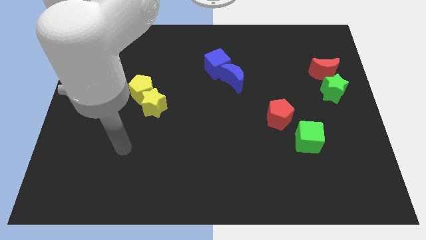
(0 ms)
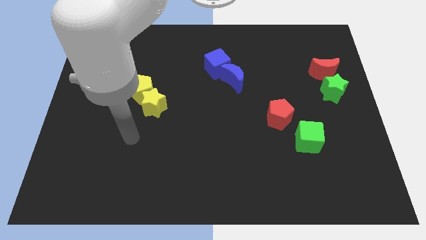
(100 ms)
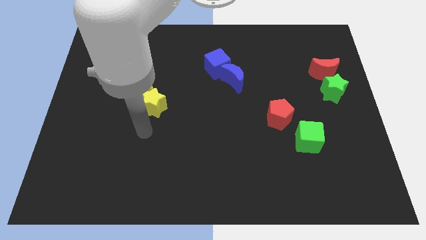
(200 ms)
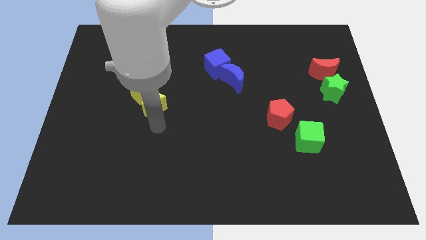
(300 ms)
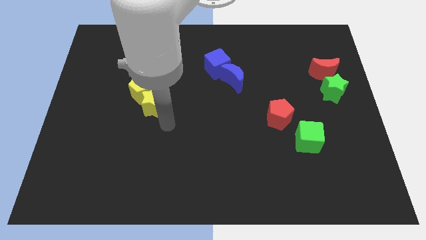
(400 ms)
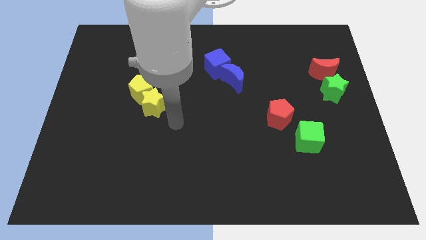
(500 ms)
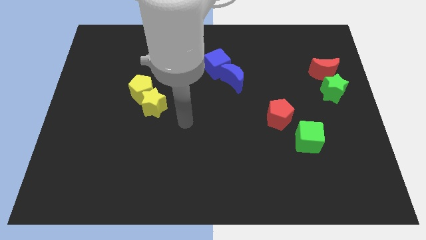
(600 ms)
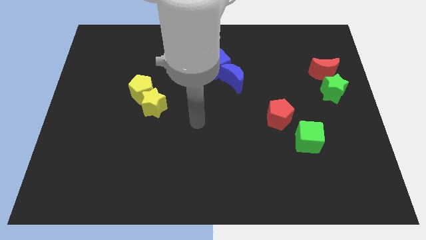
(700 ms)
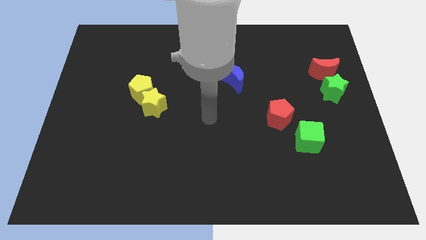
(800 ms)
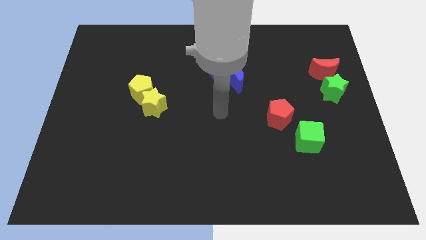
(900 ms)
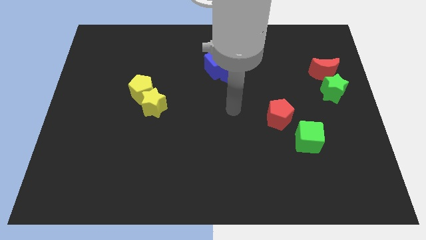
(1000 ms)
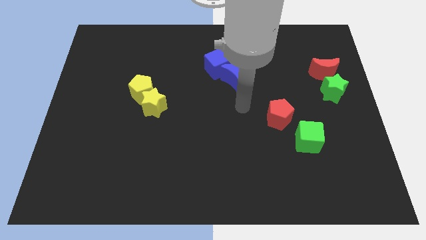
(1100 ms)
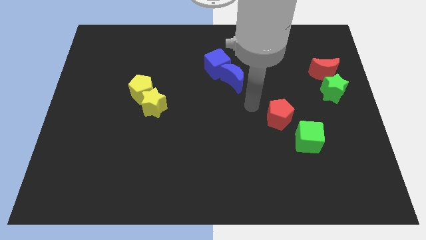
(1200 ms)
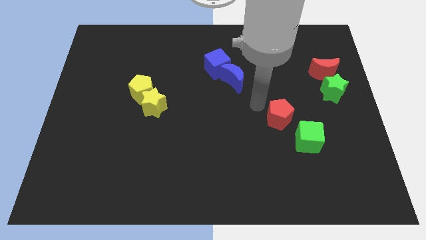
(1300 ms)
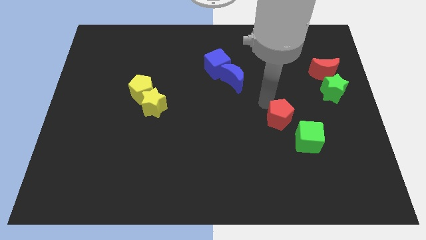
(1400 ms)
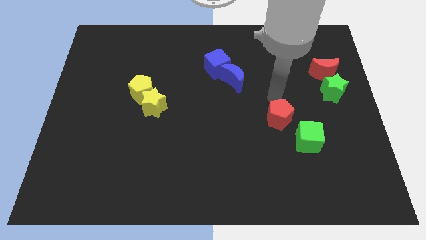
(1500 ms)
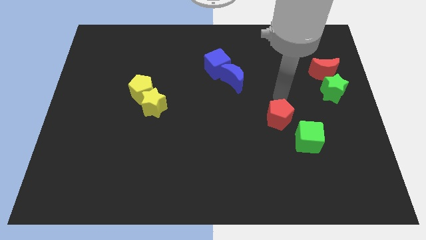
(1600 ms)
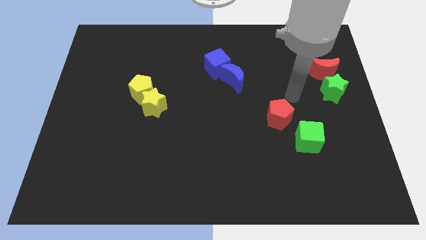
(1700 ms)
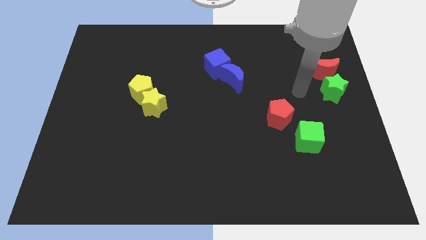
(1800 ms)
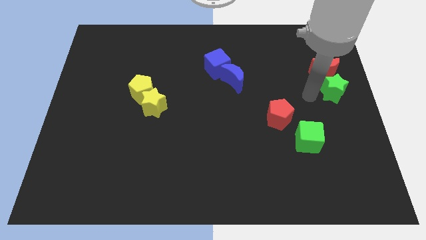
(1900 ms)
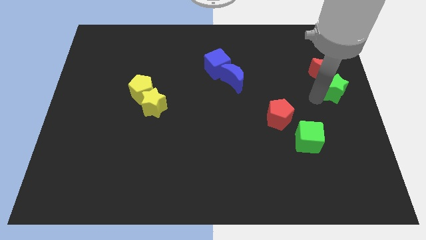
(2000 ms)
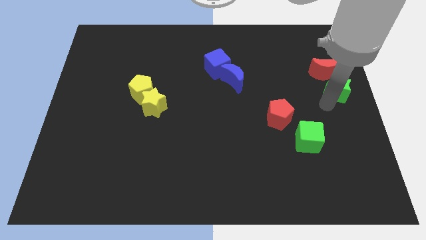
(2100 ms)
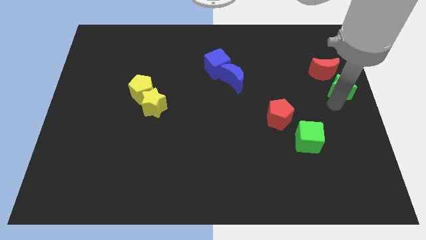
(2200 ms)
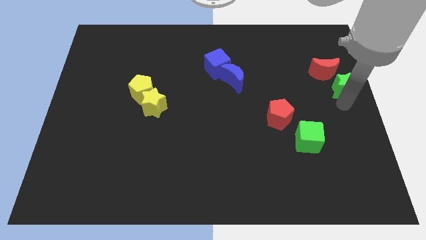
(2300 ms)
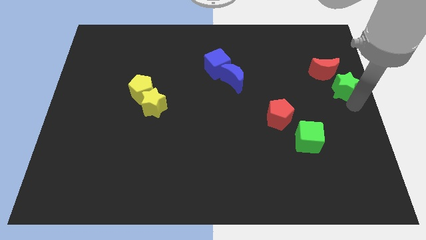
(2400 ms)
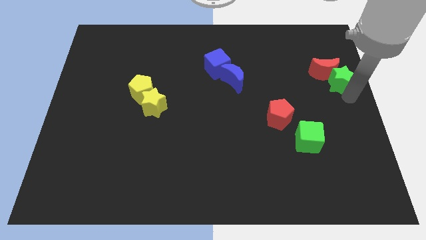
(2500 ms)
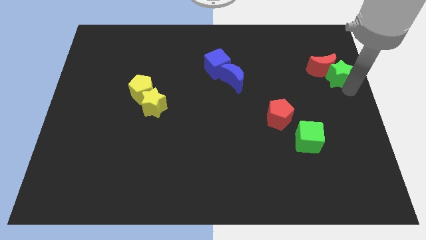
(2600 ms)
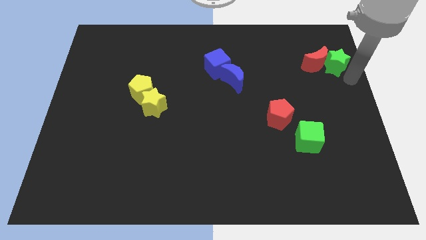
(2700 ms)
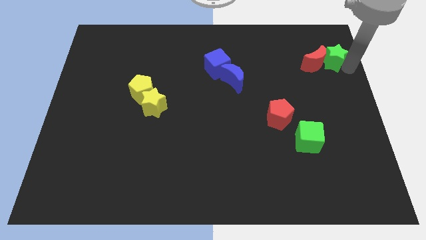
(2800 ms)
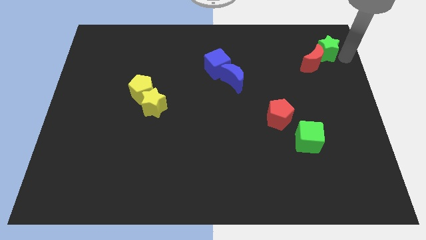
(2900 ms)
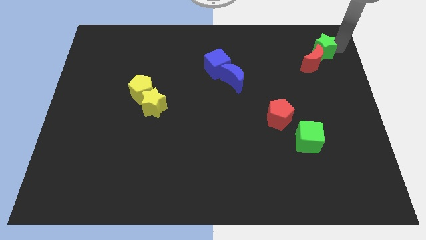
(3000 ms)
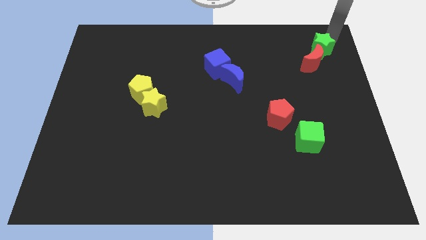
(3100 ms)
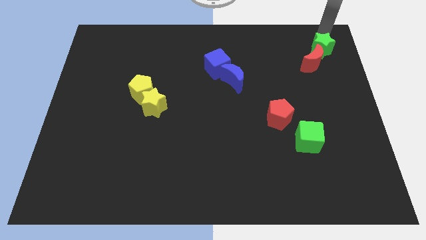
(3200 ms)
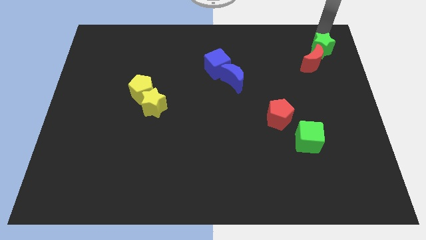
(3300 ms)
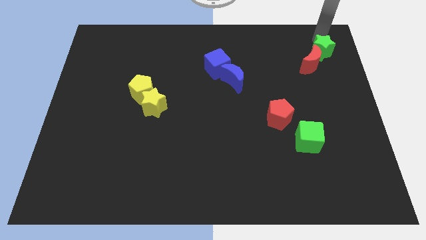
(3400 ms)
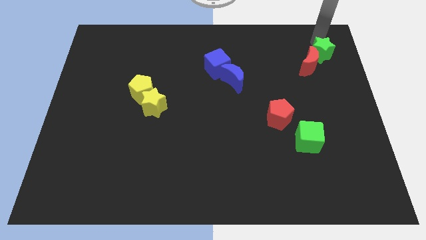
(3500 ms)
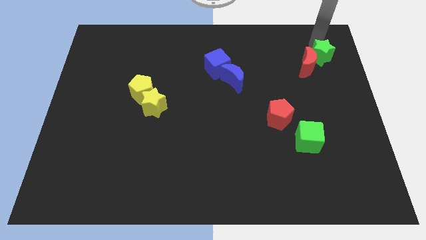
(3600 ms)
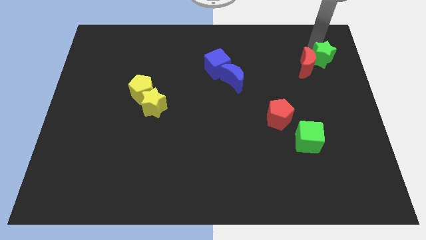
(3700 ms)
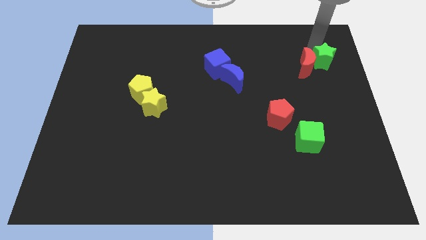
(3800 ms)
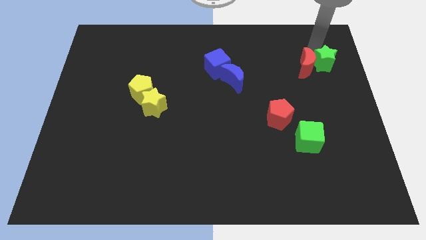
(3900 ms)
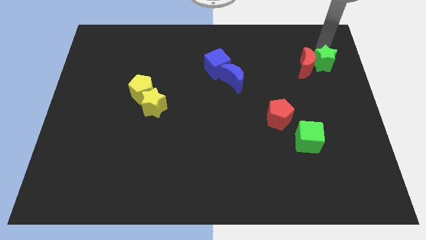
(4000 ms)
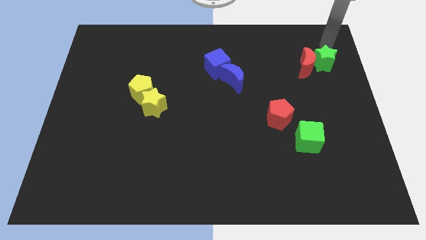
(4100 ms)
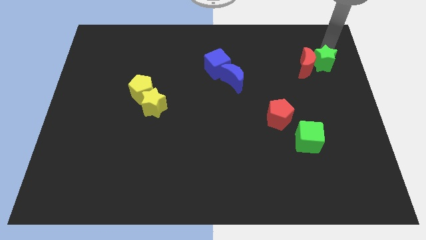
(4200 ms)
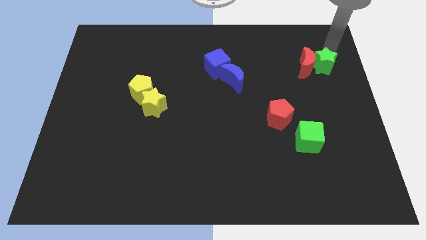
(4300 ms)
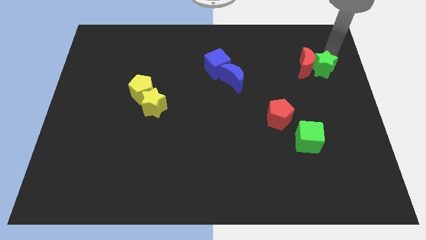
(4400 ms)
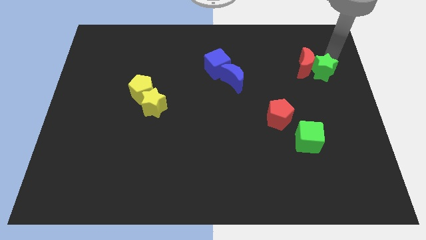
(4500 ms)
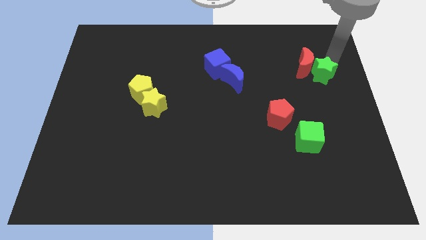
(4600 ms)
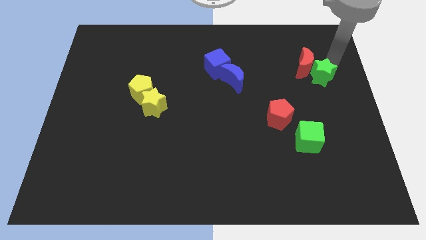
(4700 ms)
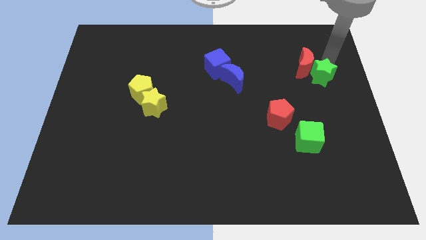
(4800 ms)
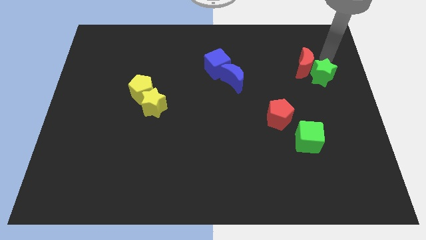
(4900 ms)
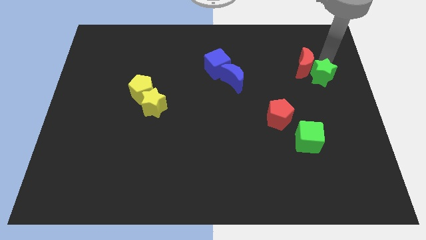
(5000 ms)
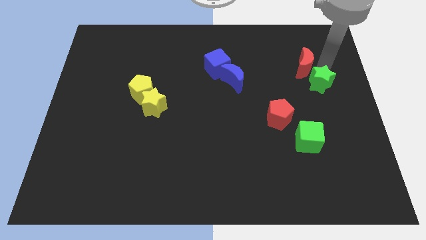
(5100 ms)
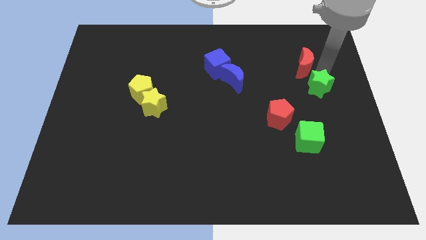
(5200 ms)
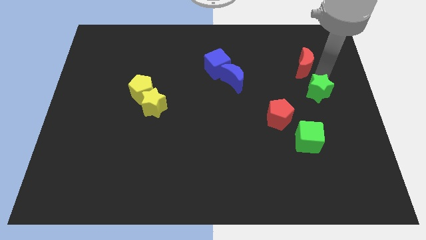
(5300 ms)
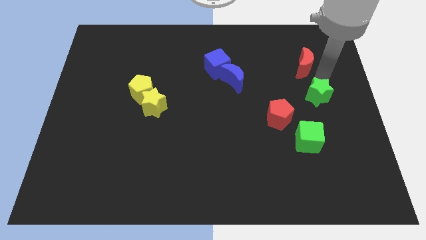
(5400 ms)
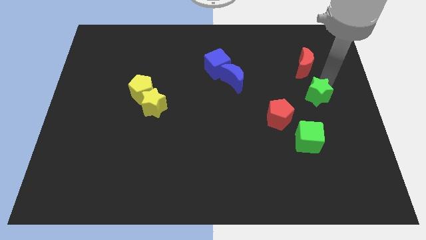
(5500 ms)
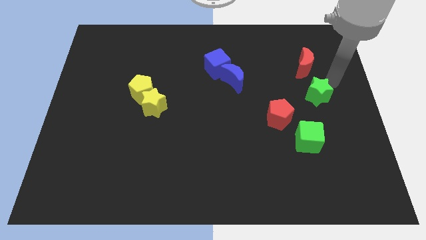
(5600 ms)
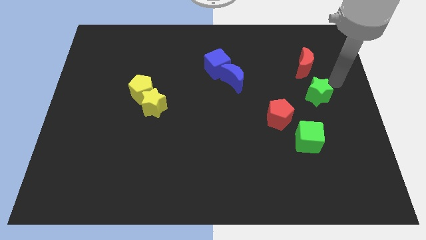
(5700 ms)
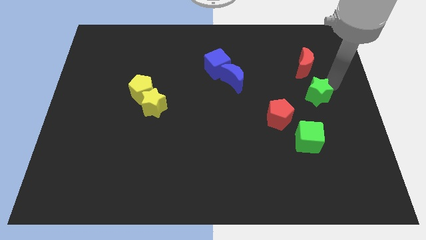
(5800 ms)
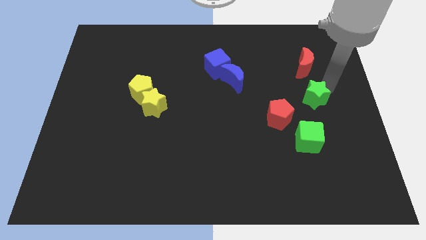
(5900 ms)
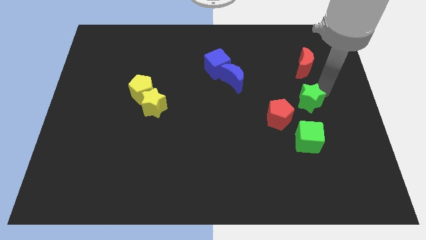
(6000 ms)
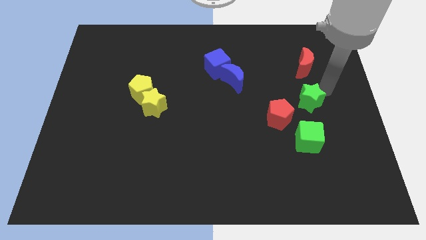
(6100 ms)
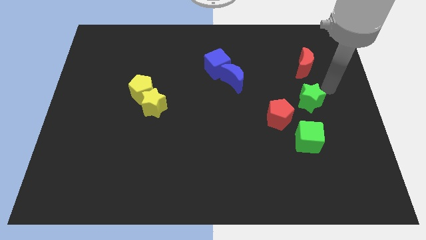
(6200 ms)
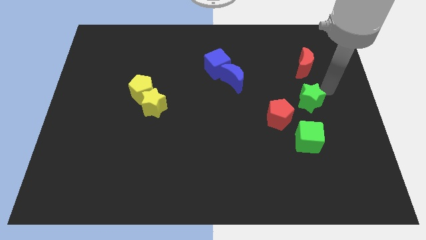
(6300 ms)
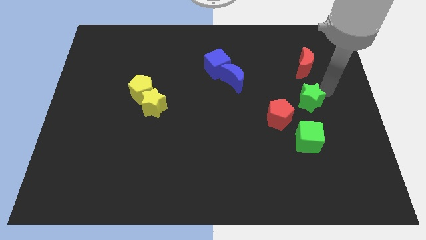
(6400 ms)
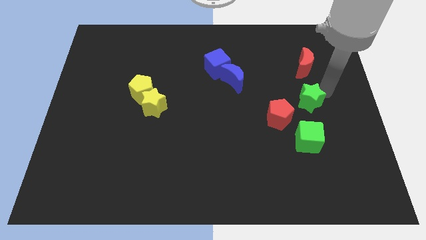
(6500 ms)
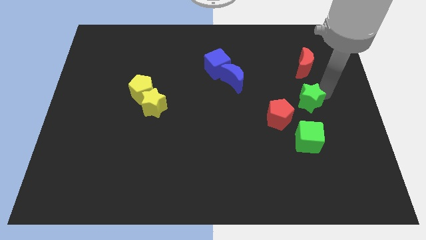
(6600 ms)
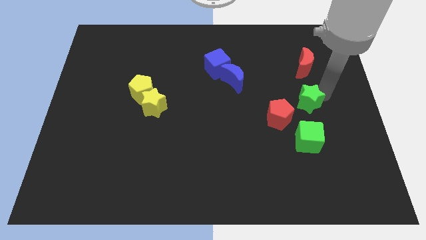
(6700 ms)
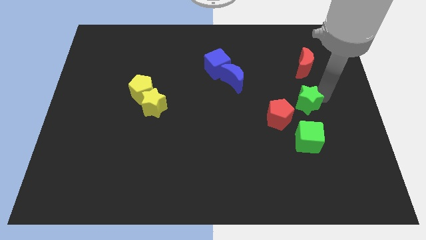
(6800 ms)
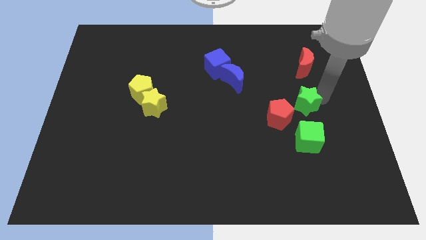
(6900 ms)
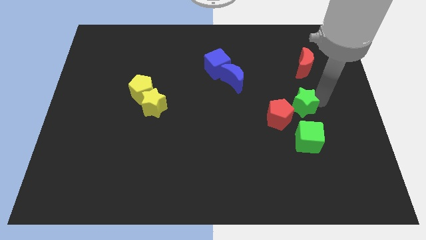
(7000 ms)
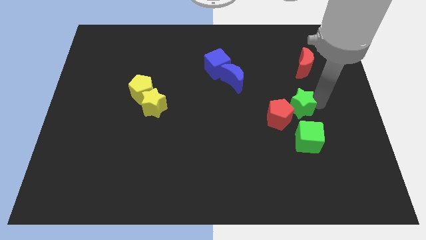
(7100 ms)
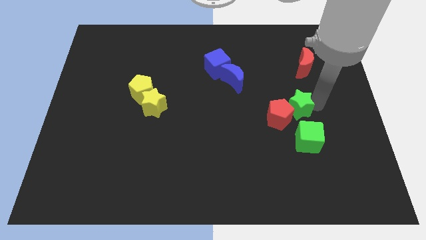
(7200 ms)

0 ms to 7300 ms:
move the green star to the red pentagon
